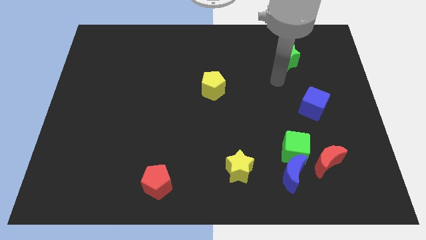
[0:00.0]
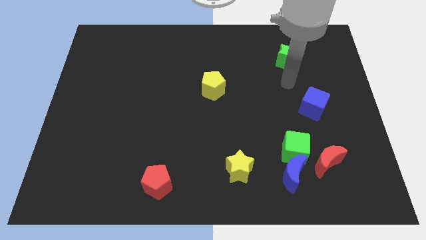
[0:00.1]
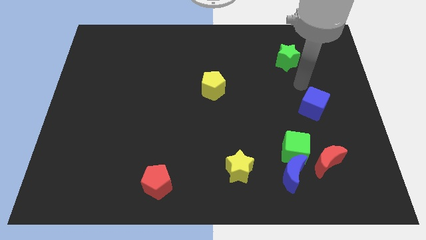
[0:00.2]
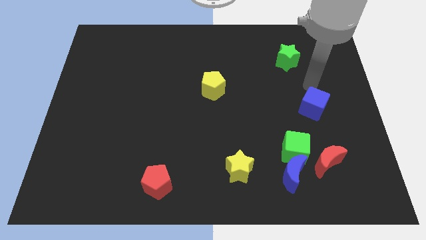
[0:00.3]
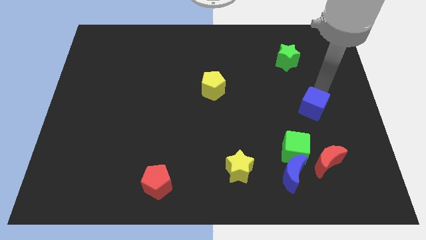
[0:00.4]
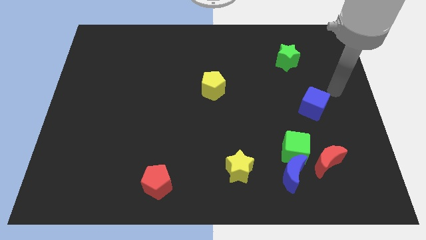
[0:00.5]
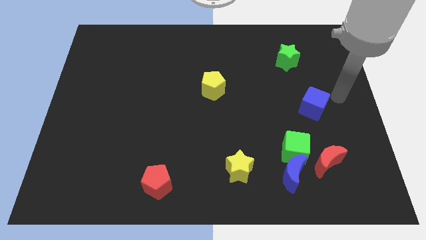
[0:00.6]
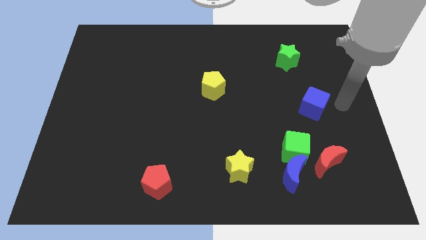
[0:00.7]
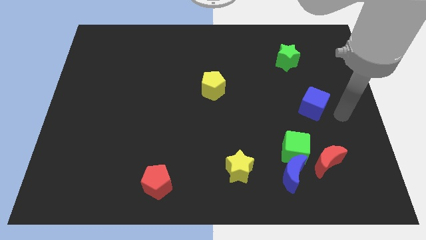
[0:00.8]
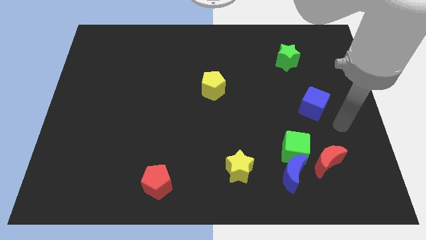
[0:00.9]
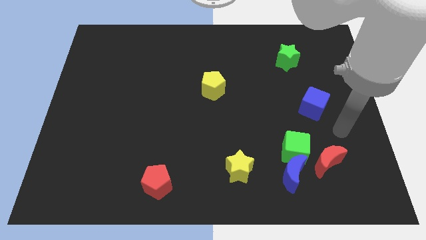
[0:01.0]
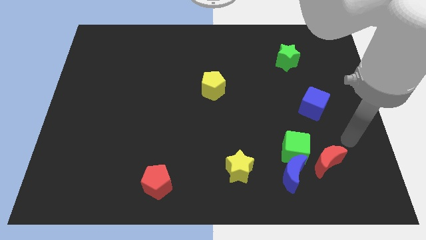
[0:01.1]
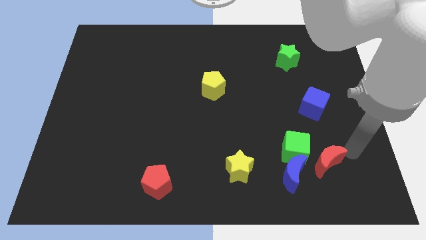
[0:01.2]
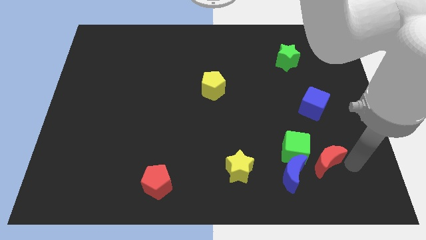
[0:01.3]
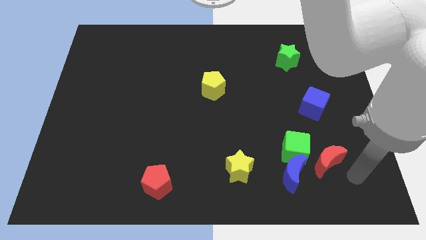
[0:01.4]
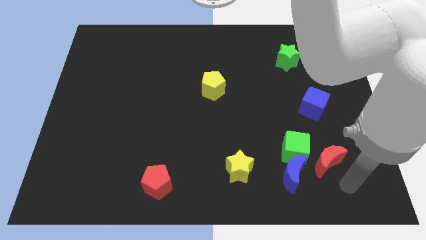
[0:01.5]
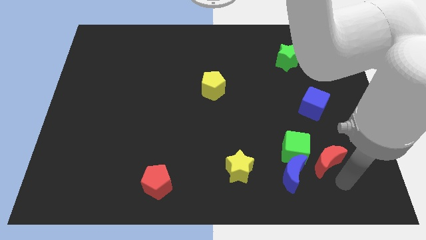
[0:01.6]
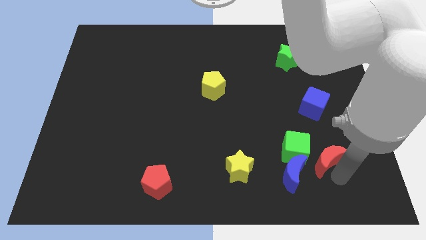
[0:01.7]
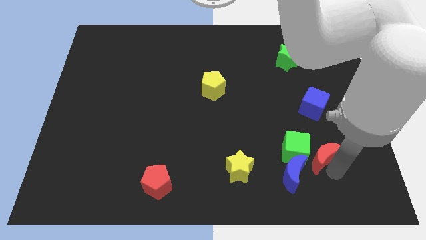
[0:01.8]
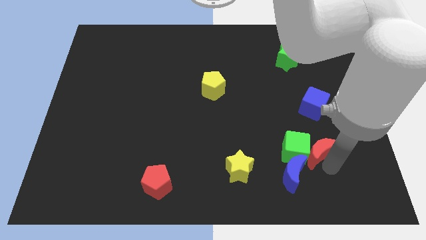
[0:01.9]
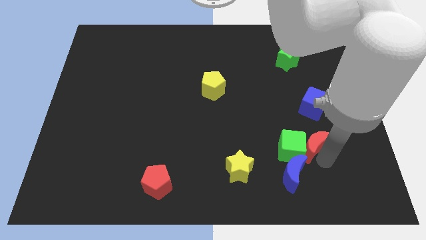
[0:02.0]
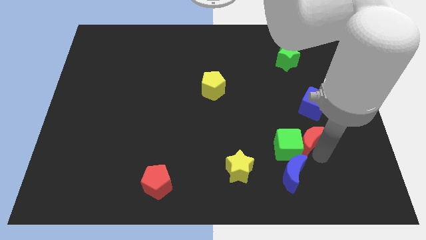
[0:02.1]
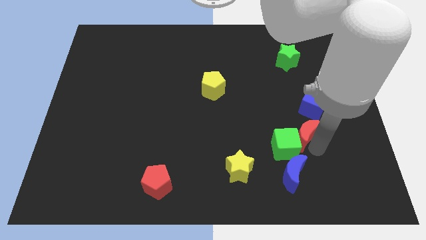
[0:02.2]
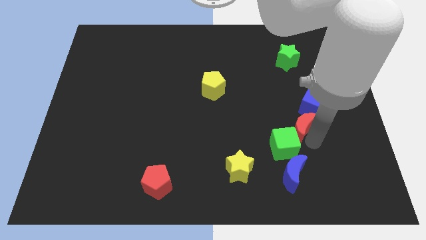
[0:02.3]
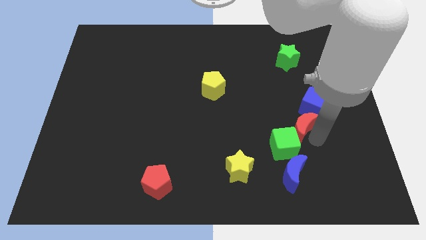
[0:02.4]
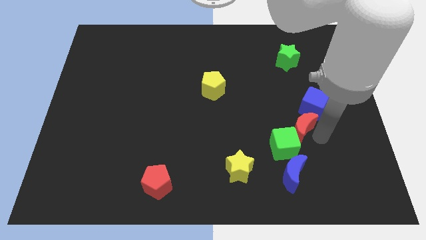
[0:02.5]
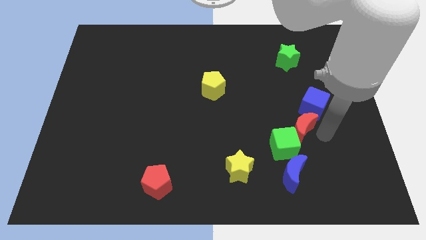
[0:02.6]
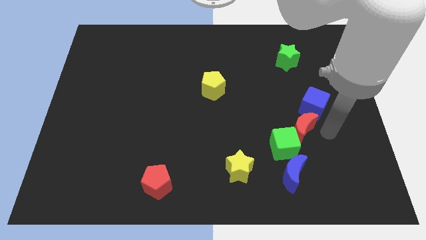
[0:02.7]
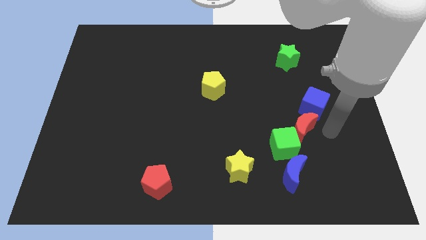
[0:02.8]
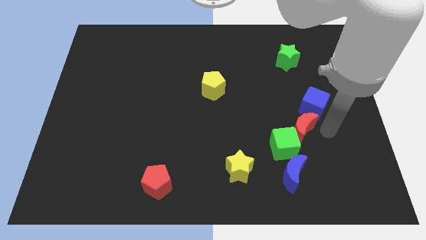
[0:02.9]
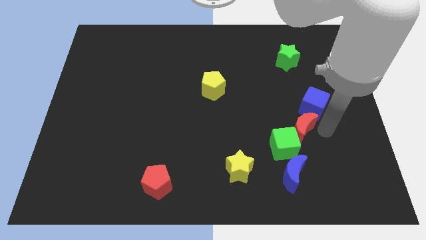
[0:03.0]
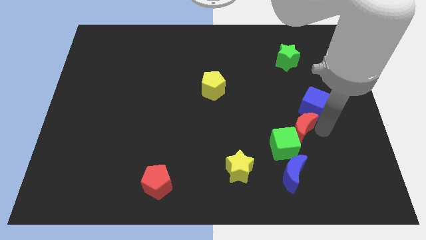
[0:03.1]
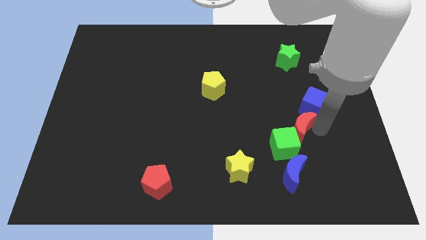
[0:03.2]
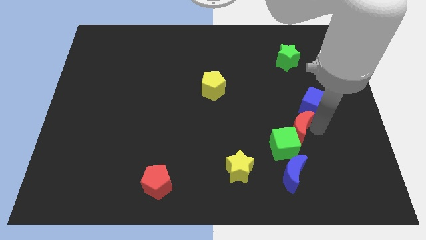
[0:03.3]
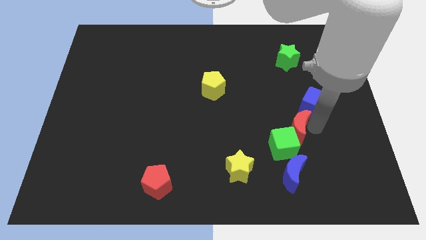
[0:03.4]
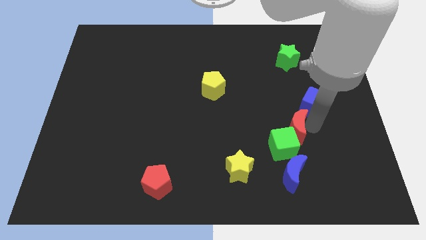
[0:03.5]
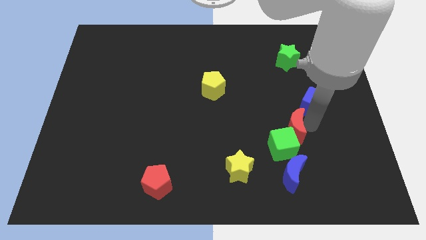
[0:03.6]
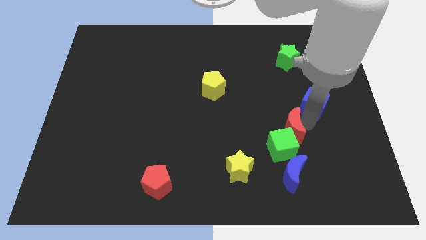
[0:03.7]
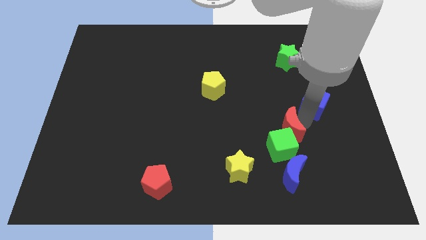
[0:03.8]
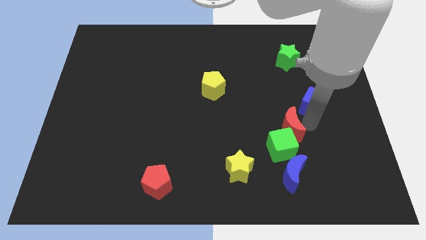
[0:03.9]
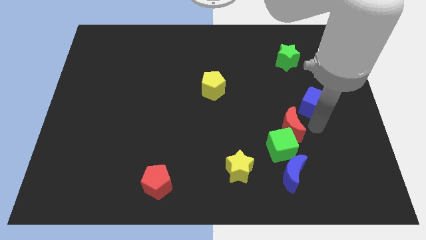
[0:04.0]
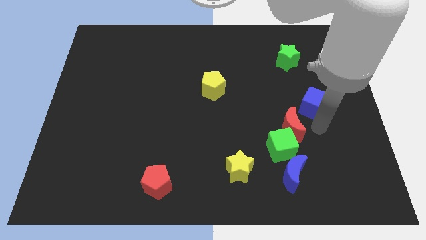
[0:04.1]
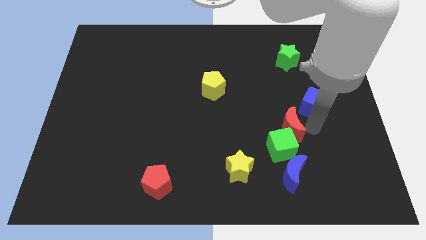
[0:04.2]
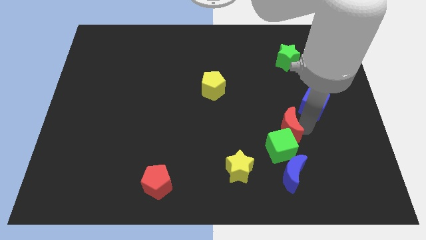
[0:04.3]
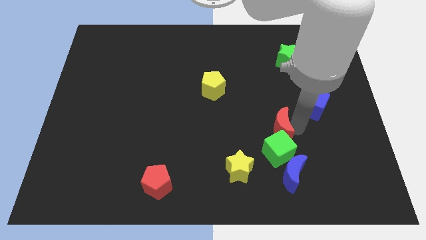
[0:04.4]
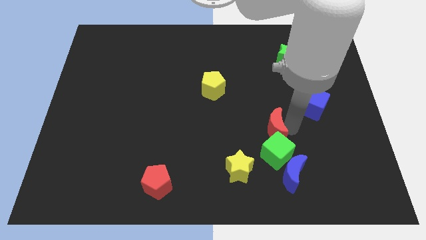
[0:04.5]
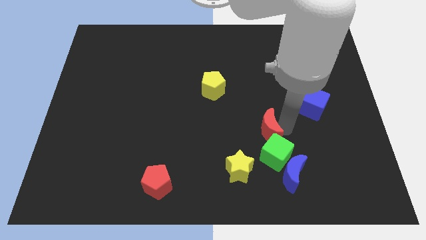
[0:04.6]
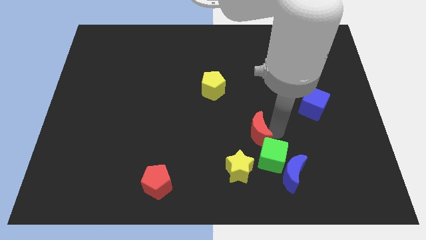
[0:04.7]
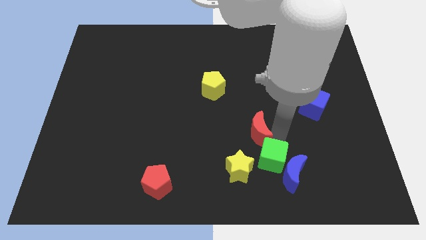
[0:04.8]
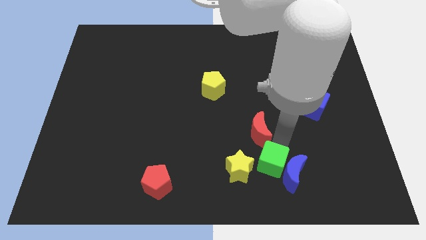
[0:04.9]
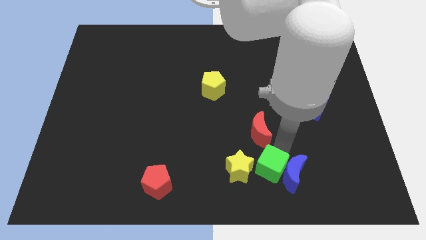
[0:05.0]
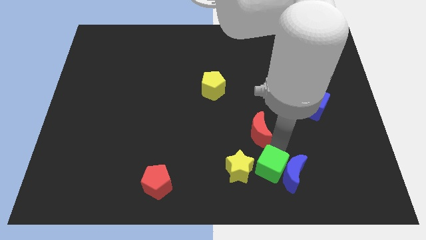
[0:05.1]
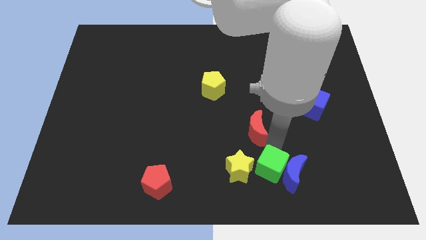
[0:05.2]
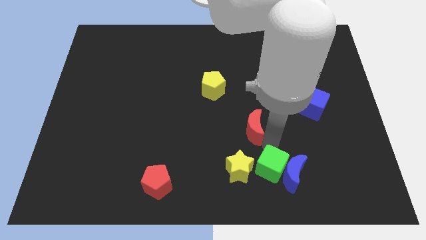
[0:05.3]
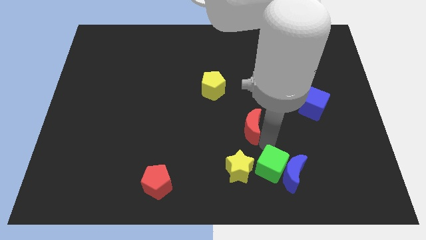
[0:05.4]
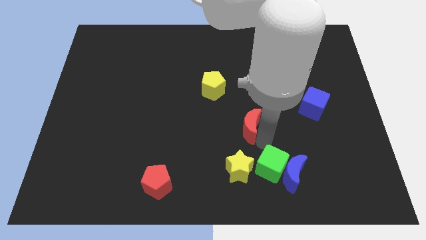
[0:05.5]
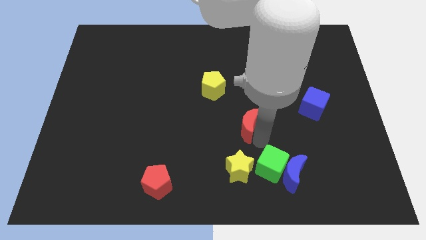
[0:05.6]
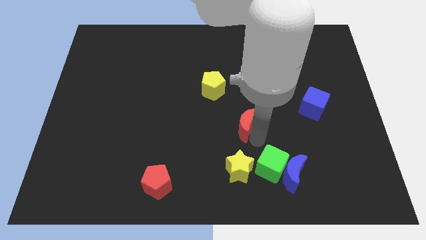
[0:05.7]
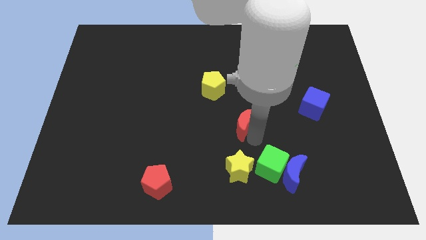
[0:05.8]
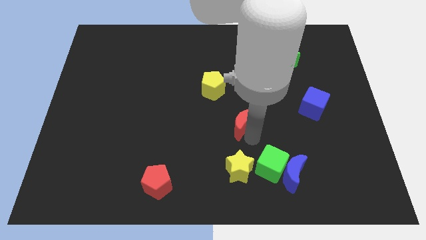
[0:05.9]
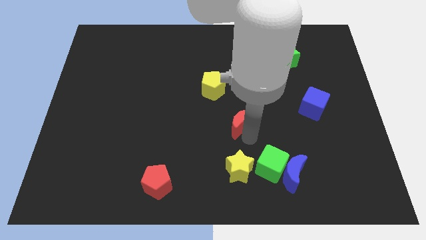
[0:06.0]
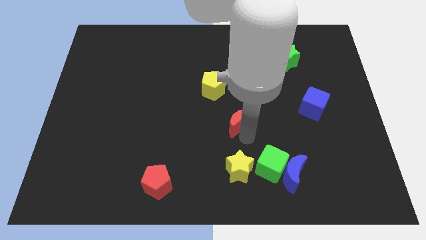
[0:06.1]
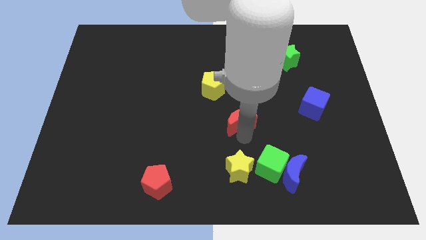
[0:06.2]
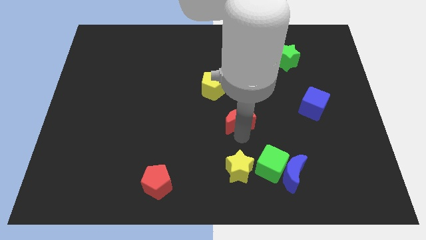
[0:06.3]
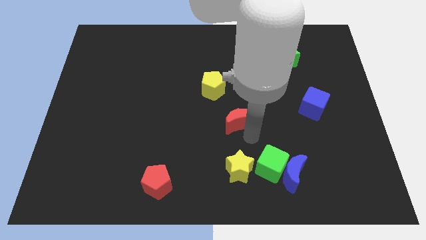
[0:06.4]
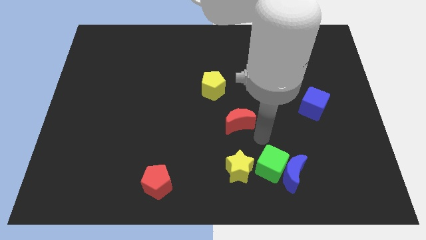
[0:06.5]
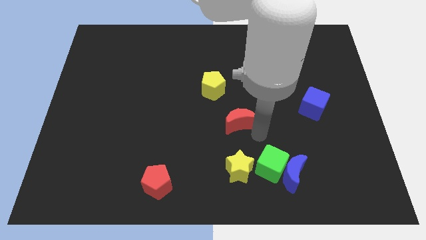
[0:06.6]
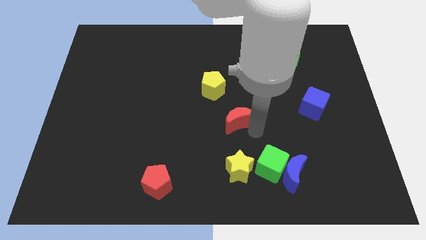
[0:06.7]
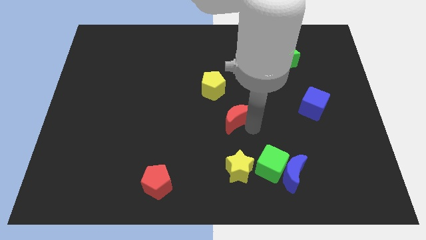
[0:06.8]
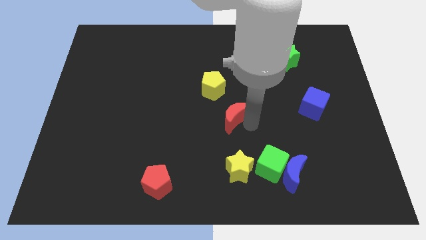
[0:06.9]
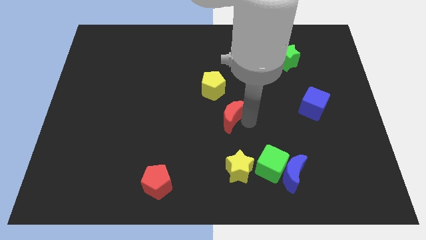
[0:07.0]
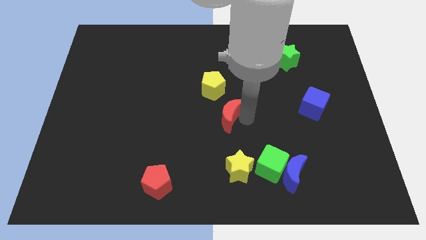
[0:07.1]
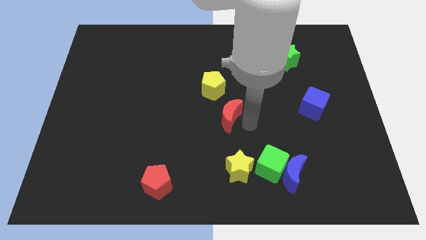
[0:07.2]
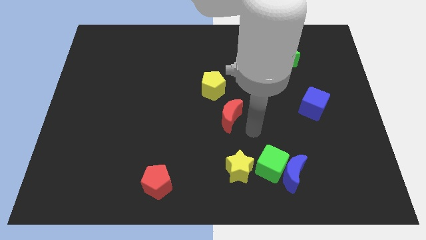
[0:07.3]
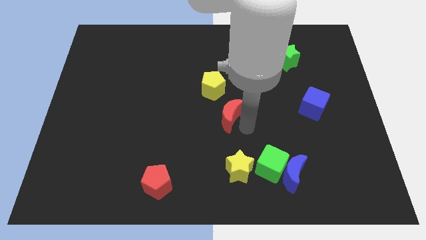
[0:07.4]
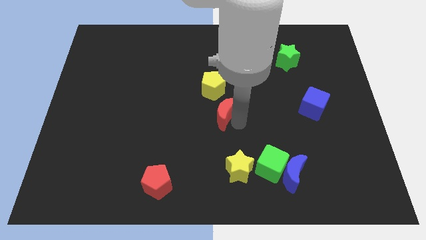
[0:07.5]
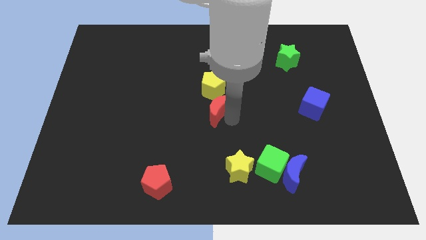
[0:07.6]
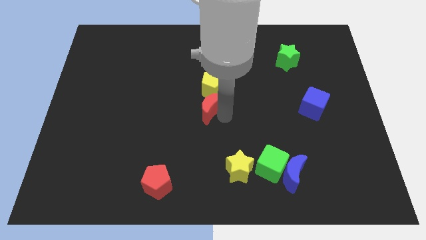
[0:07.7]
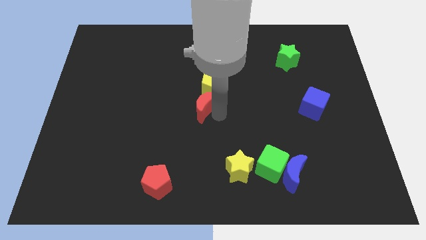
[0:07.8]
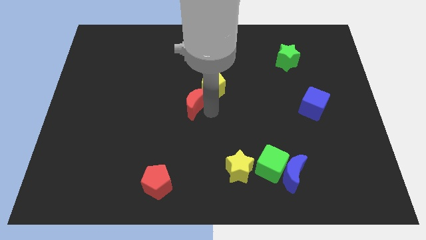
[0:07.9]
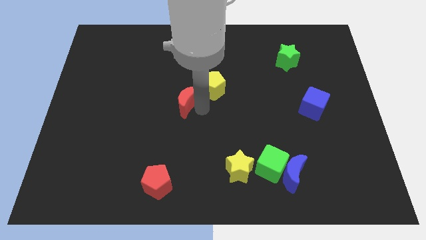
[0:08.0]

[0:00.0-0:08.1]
put the red moon to the left side of the yellow pentagon
